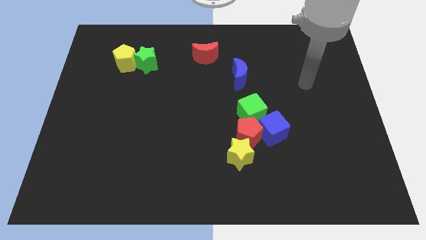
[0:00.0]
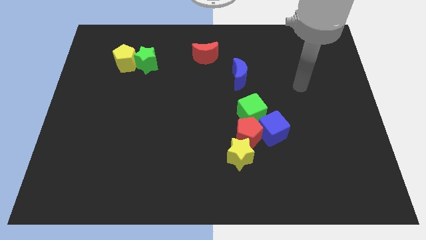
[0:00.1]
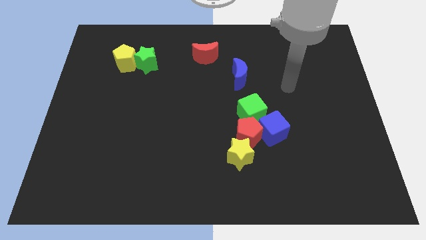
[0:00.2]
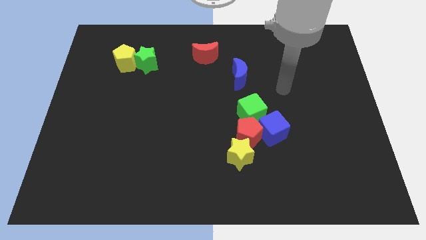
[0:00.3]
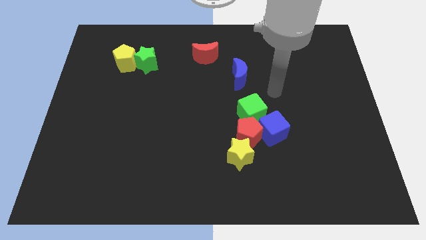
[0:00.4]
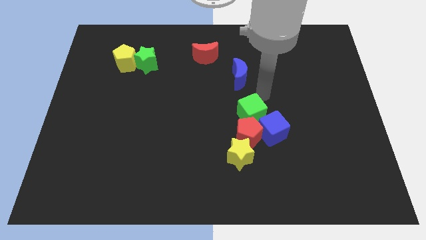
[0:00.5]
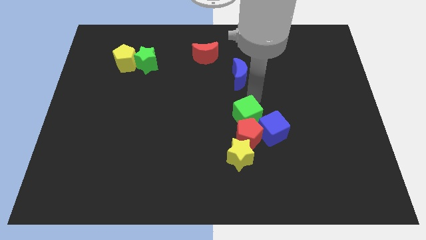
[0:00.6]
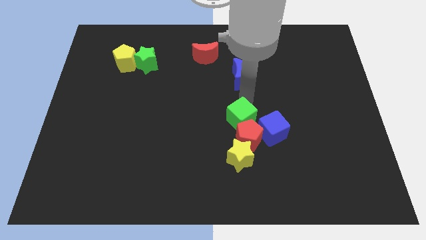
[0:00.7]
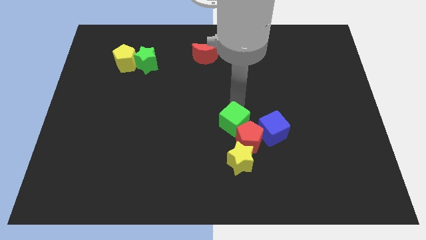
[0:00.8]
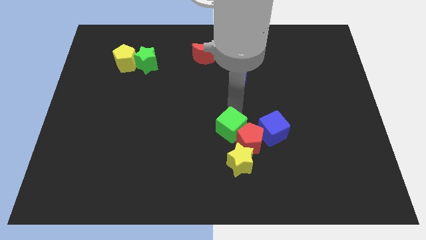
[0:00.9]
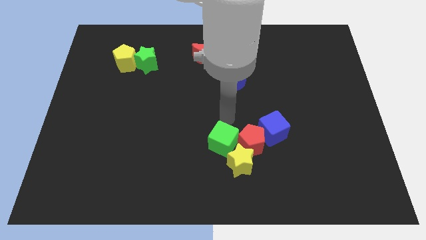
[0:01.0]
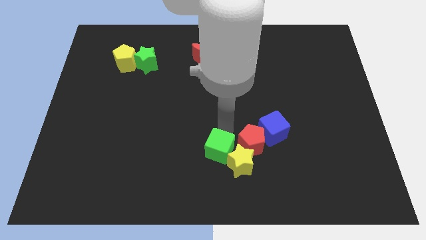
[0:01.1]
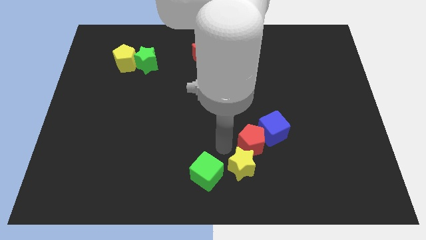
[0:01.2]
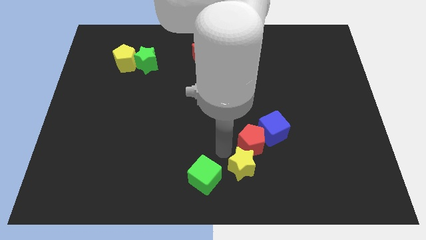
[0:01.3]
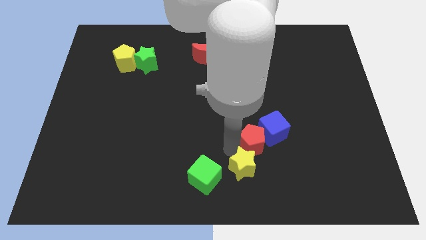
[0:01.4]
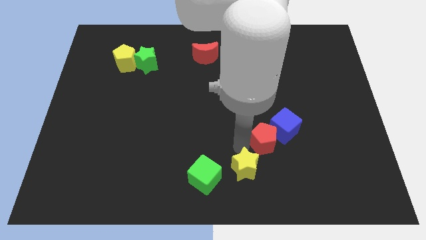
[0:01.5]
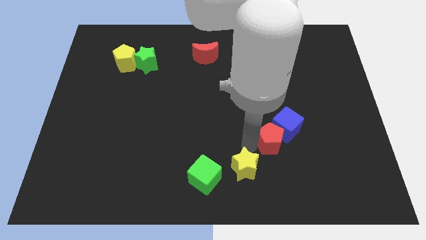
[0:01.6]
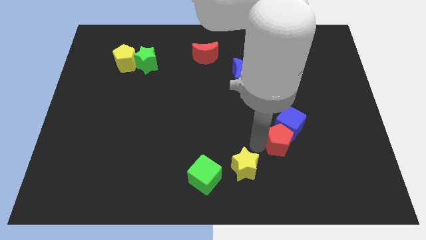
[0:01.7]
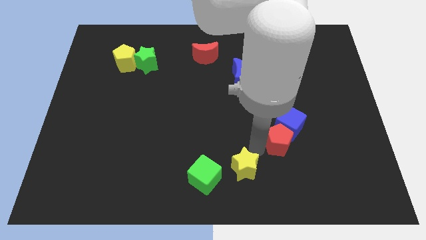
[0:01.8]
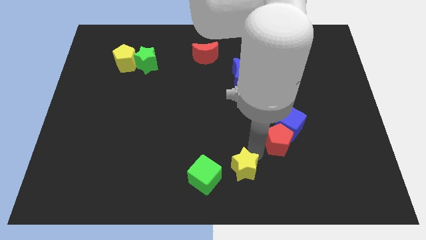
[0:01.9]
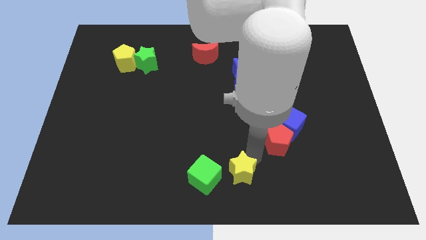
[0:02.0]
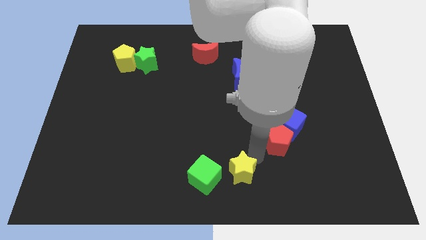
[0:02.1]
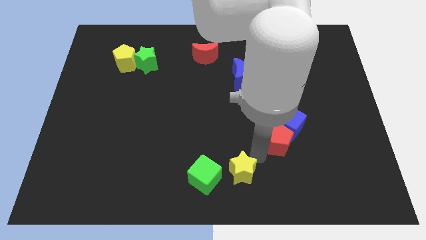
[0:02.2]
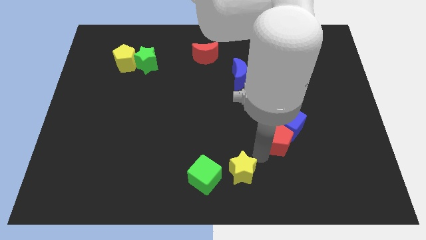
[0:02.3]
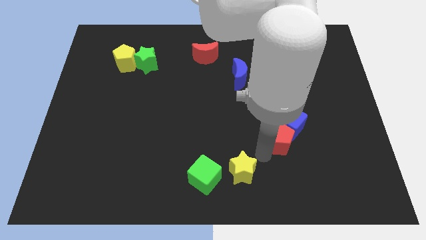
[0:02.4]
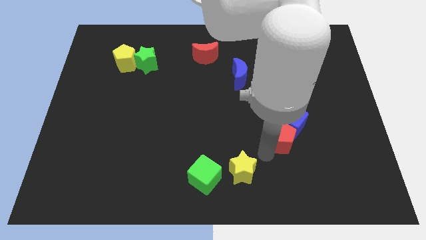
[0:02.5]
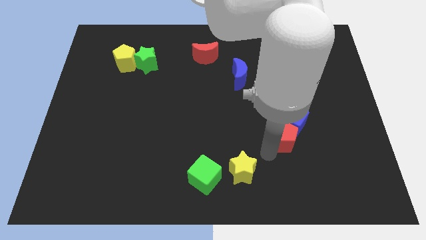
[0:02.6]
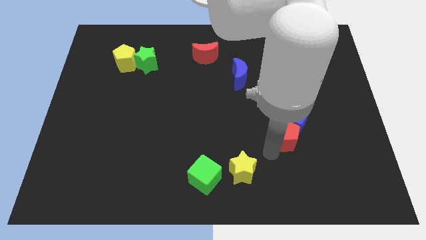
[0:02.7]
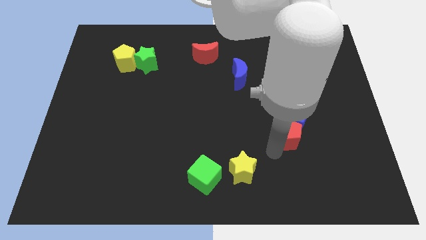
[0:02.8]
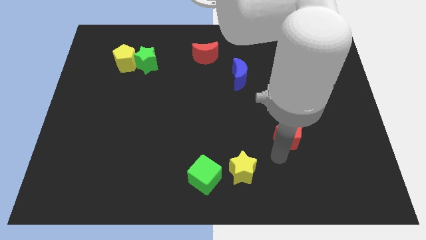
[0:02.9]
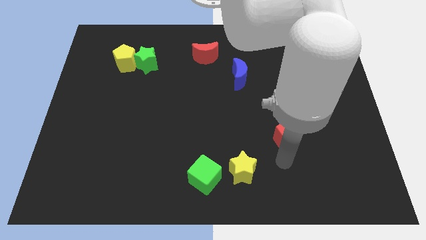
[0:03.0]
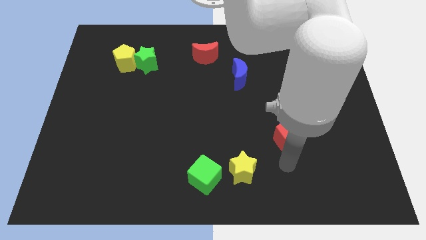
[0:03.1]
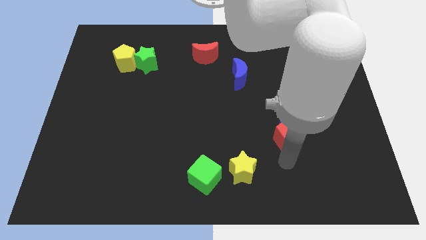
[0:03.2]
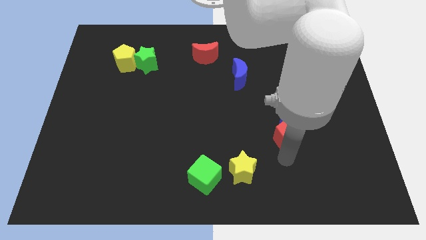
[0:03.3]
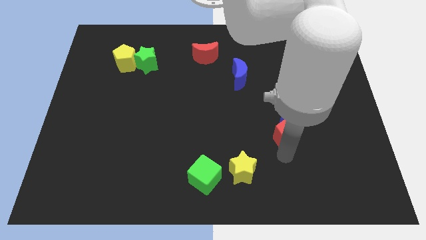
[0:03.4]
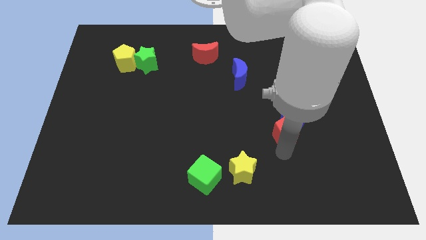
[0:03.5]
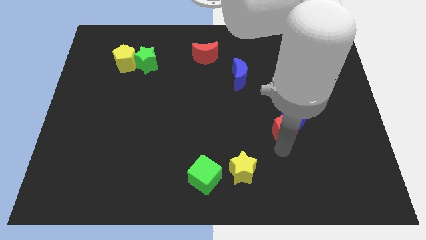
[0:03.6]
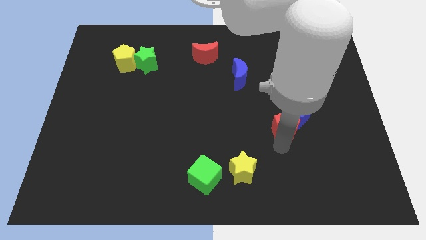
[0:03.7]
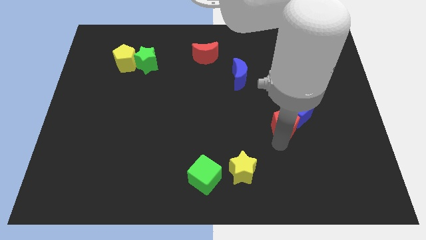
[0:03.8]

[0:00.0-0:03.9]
slide the red pentagon diagonally up and to the right somewhat

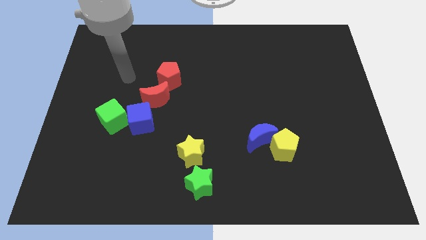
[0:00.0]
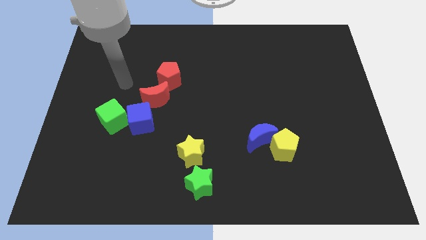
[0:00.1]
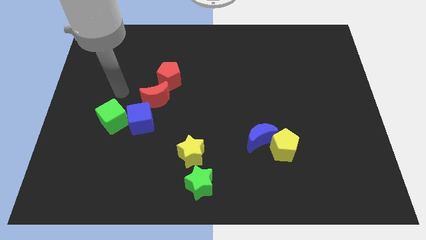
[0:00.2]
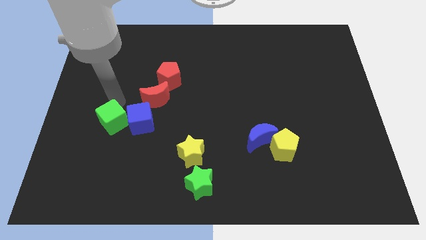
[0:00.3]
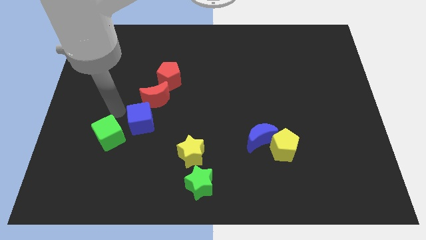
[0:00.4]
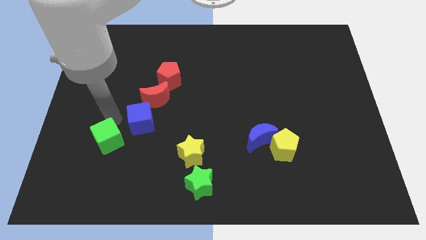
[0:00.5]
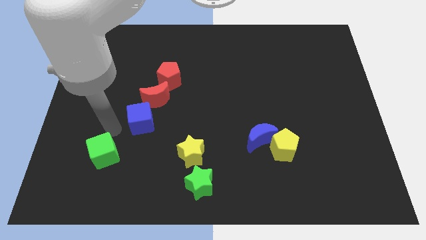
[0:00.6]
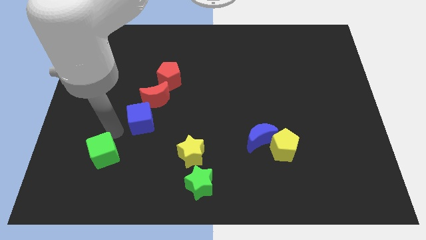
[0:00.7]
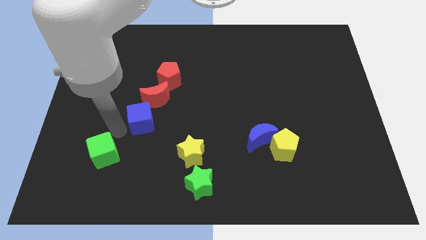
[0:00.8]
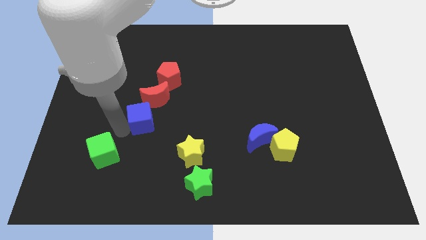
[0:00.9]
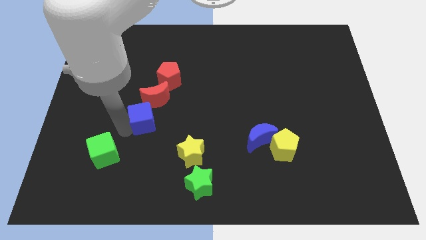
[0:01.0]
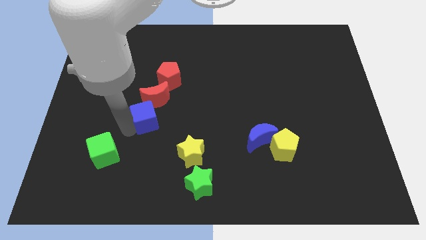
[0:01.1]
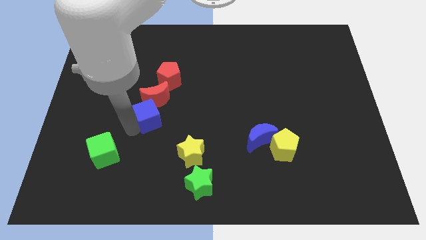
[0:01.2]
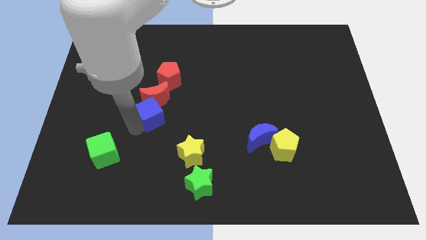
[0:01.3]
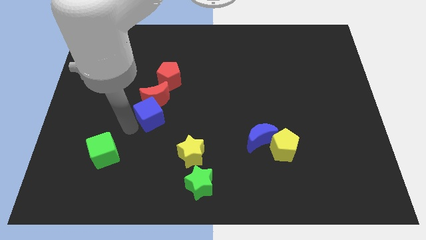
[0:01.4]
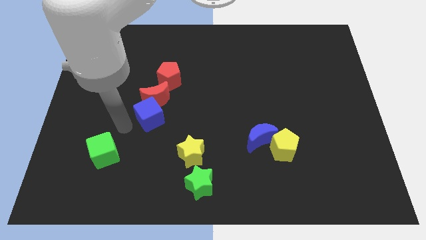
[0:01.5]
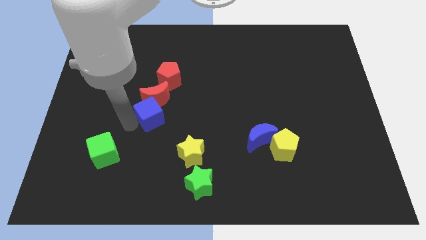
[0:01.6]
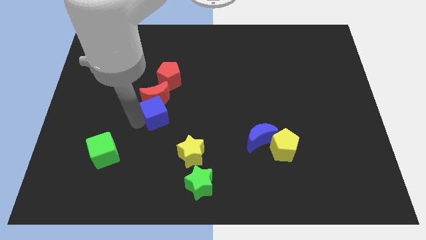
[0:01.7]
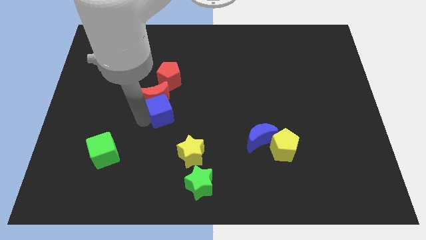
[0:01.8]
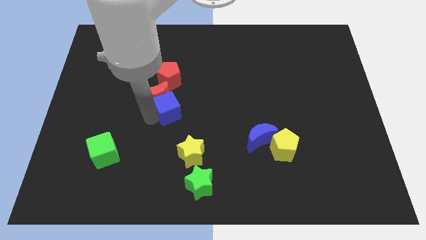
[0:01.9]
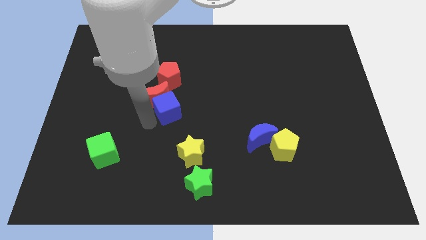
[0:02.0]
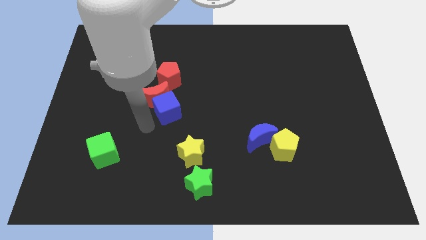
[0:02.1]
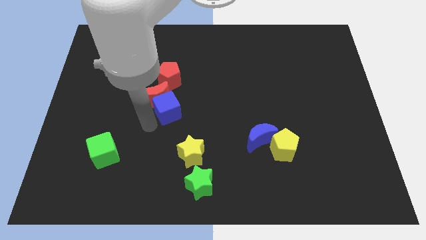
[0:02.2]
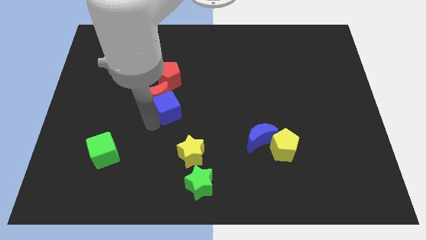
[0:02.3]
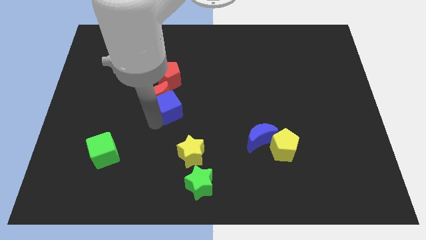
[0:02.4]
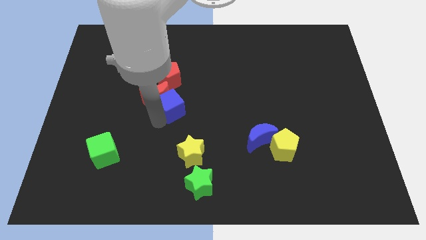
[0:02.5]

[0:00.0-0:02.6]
move the blue cube a bit up and to the right

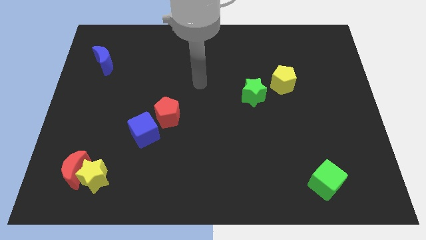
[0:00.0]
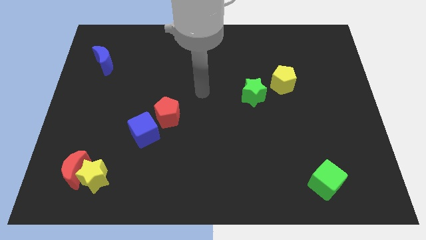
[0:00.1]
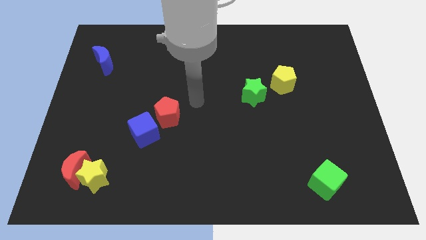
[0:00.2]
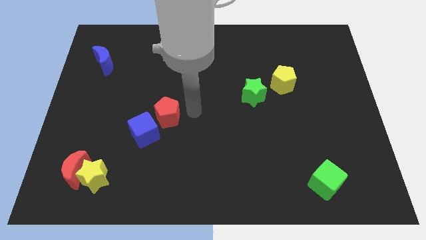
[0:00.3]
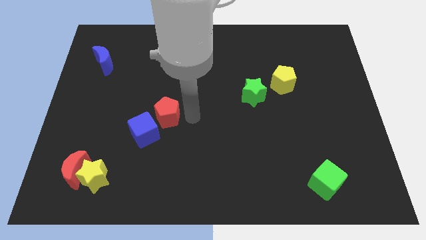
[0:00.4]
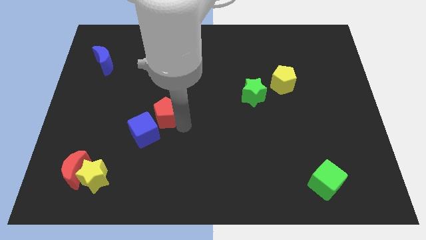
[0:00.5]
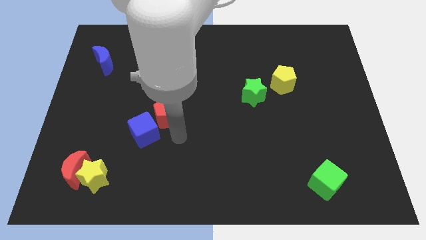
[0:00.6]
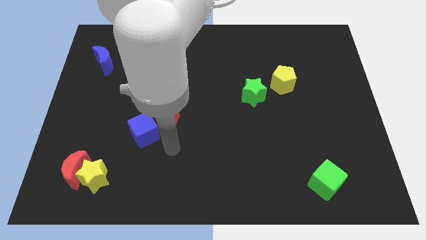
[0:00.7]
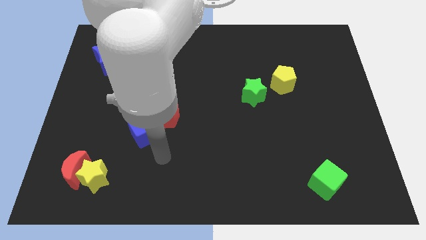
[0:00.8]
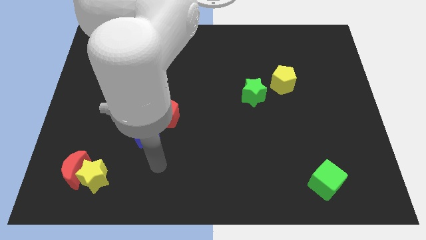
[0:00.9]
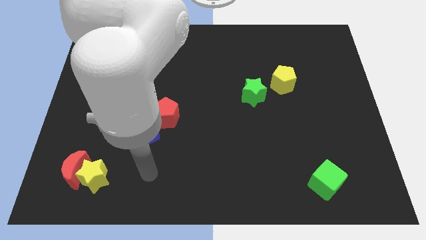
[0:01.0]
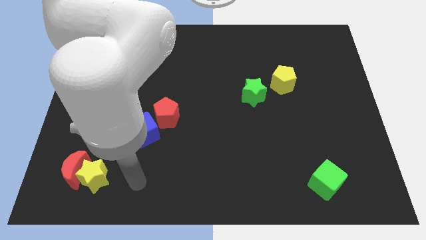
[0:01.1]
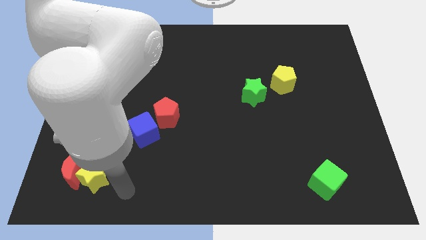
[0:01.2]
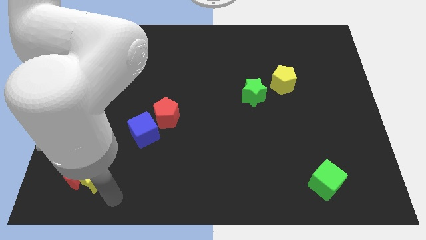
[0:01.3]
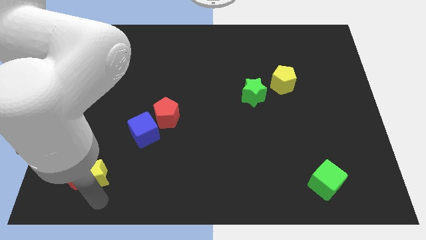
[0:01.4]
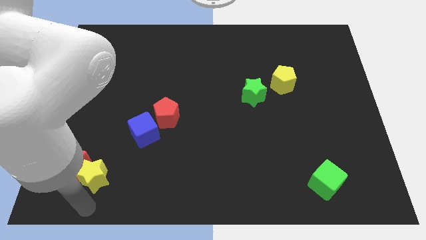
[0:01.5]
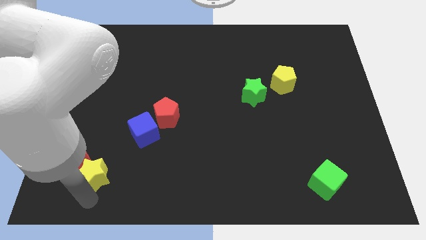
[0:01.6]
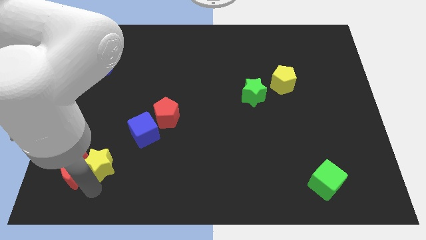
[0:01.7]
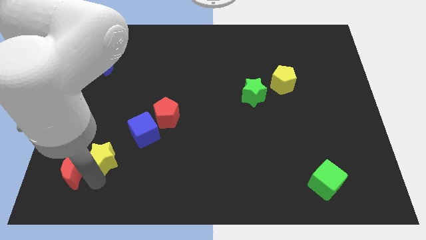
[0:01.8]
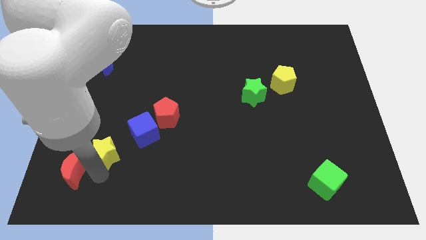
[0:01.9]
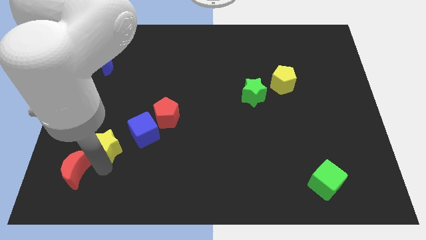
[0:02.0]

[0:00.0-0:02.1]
slightly move the yellow star up
